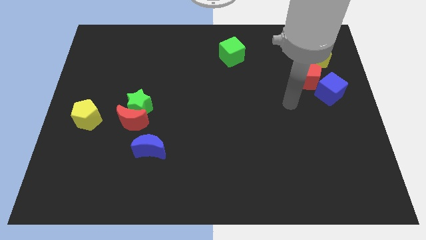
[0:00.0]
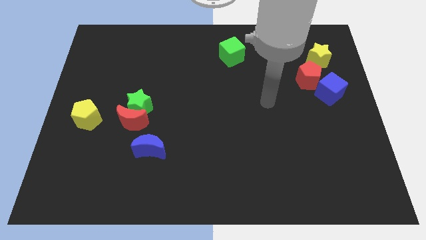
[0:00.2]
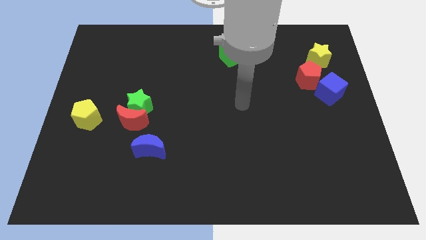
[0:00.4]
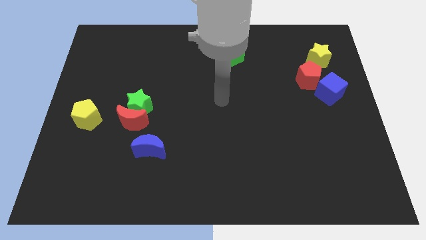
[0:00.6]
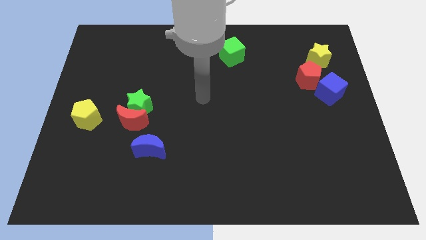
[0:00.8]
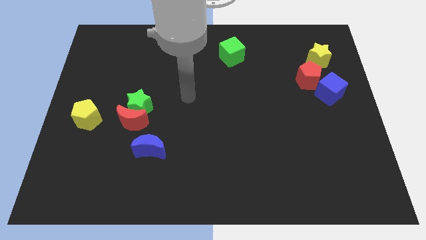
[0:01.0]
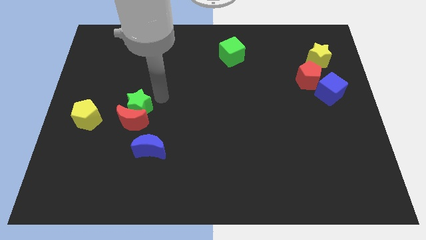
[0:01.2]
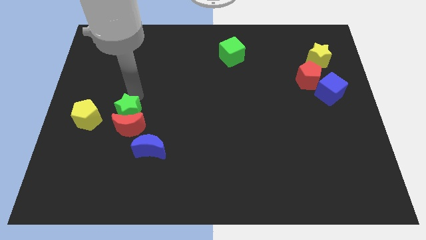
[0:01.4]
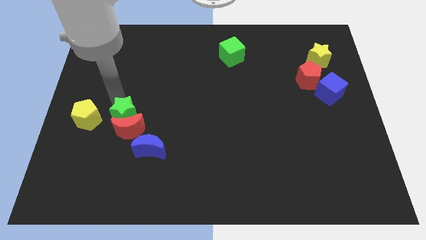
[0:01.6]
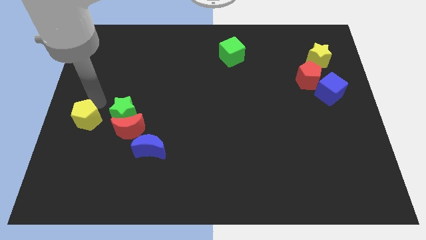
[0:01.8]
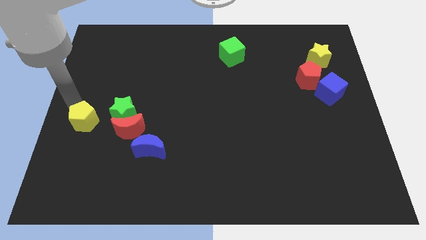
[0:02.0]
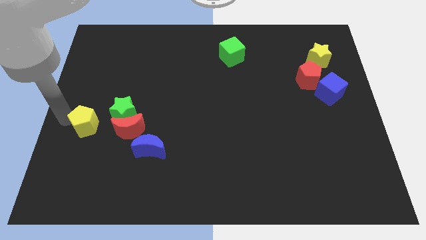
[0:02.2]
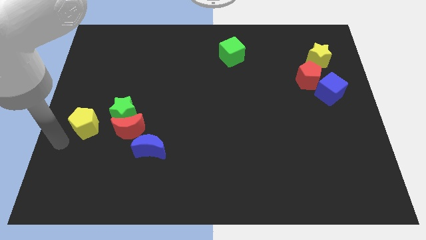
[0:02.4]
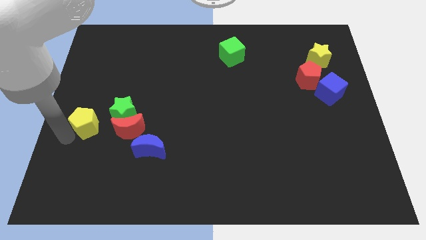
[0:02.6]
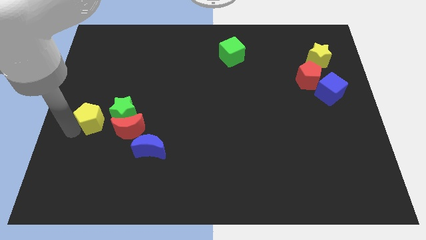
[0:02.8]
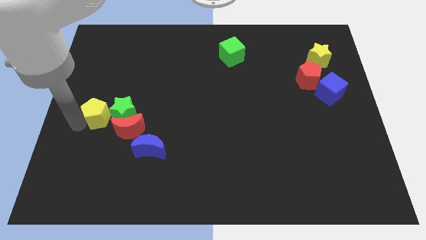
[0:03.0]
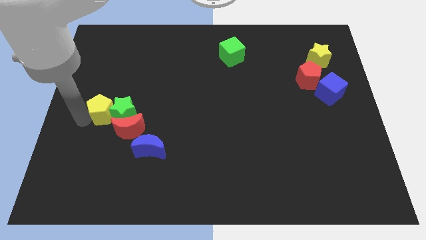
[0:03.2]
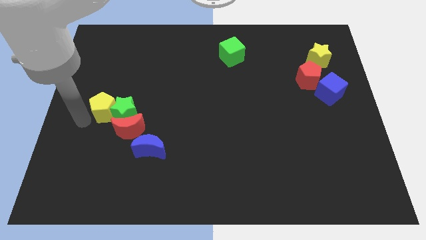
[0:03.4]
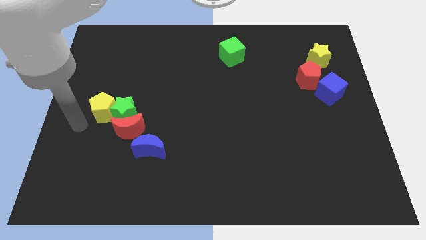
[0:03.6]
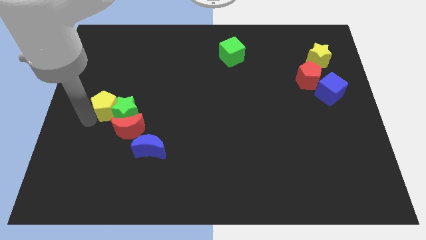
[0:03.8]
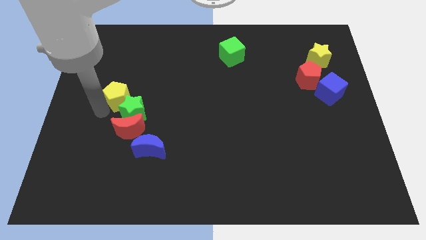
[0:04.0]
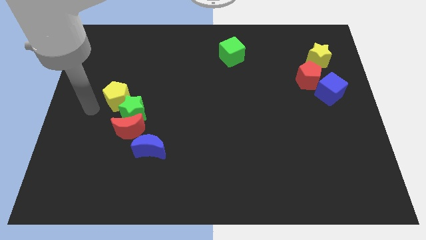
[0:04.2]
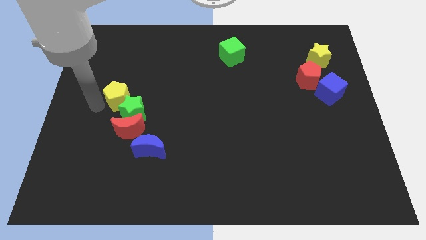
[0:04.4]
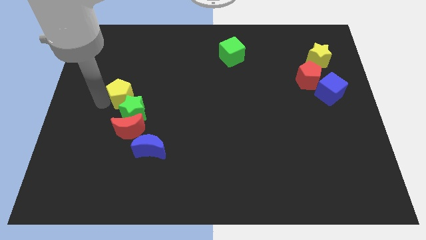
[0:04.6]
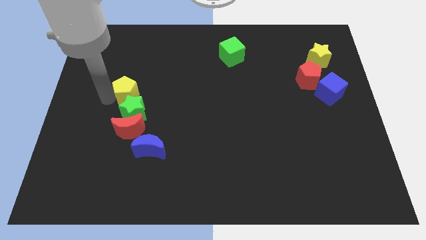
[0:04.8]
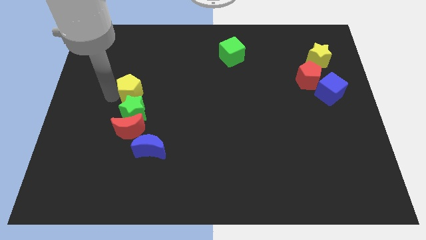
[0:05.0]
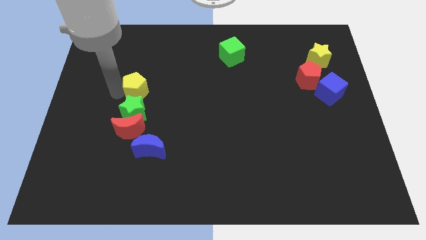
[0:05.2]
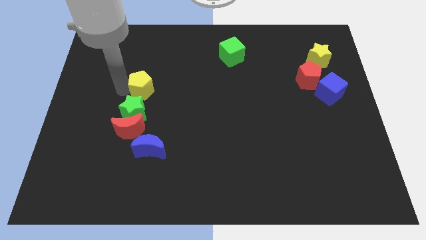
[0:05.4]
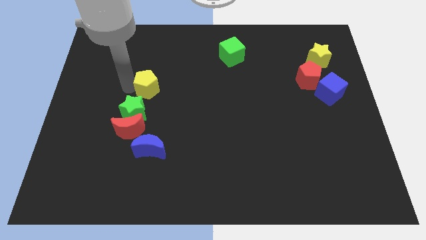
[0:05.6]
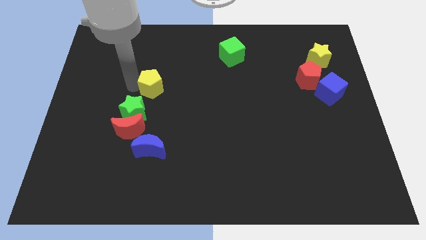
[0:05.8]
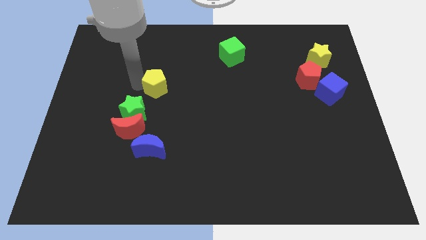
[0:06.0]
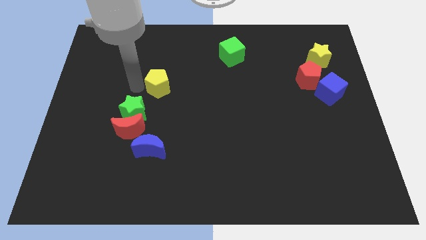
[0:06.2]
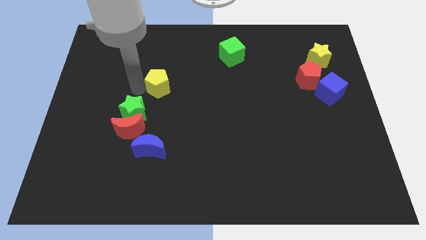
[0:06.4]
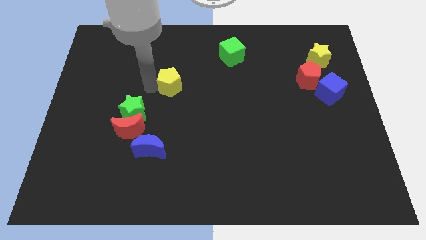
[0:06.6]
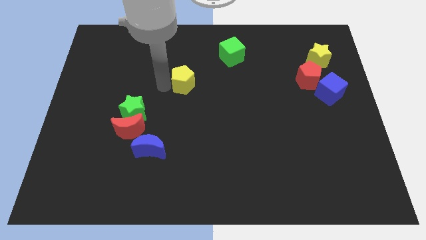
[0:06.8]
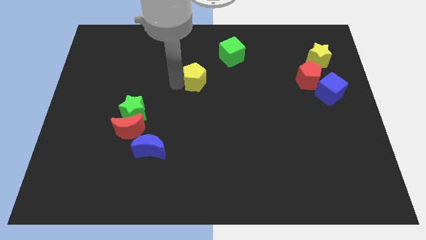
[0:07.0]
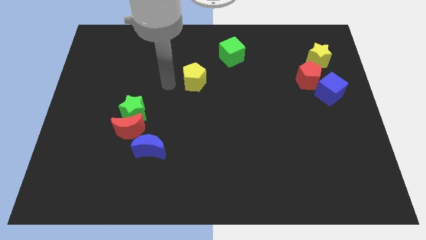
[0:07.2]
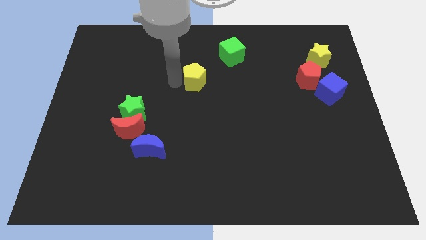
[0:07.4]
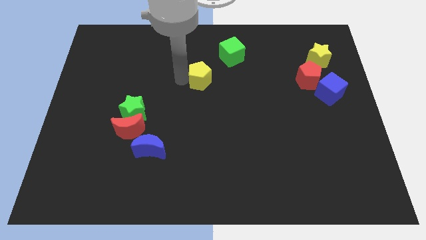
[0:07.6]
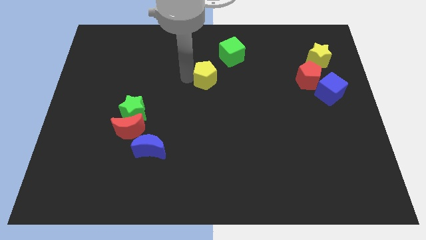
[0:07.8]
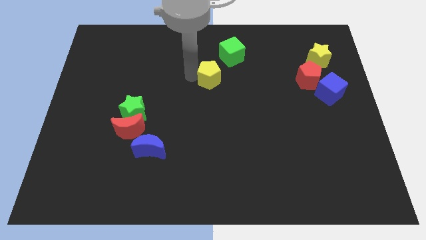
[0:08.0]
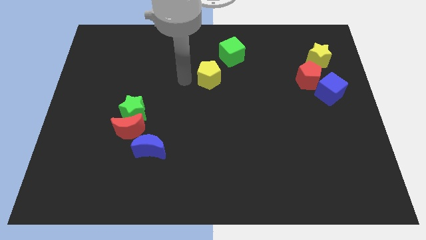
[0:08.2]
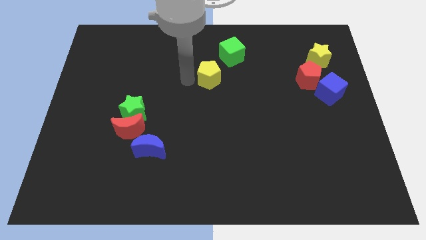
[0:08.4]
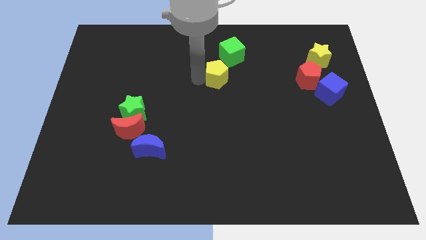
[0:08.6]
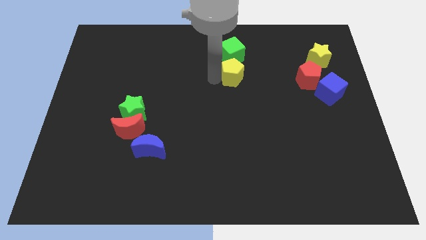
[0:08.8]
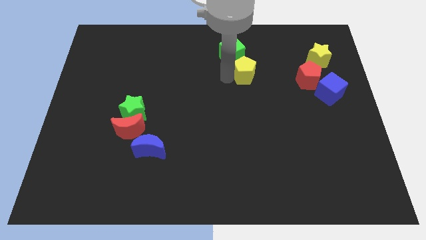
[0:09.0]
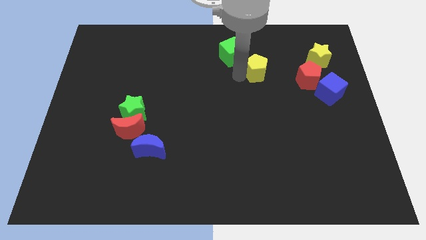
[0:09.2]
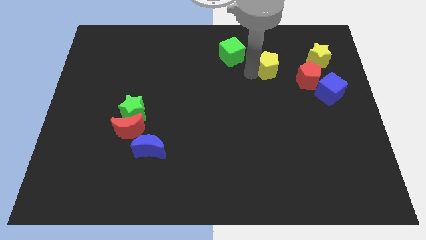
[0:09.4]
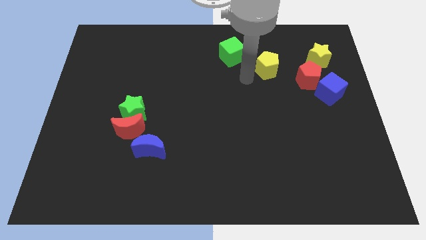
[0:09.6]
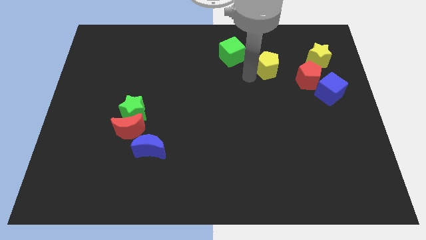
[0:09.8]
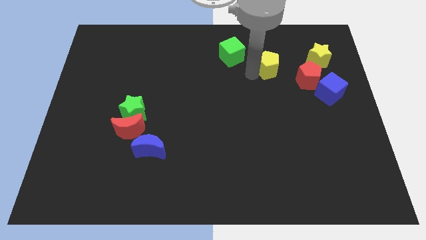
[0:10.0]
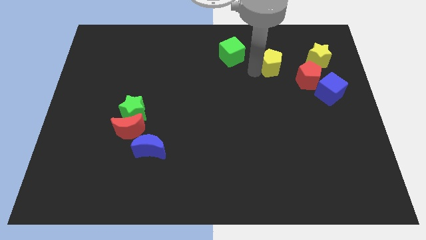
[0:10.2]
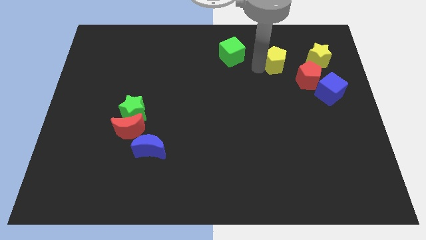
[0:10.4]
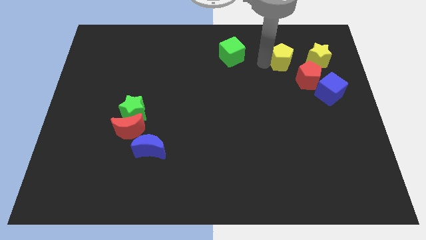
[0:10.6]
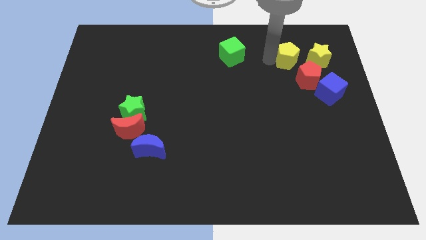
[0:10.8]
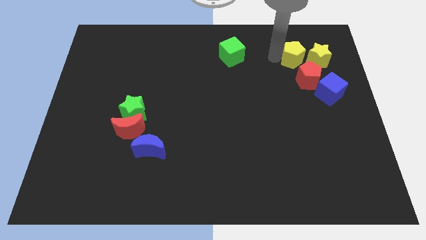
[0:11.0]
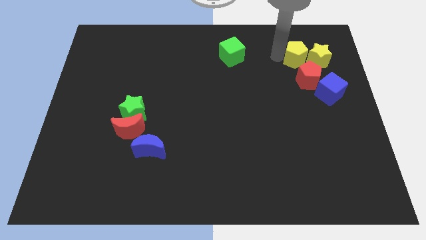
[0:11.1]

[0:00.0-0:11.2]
put the yellow pentagon next to the yellow star

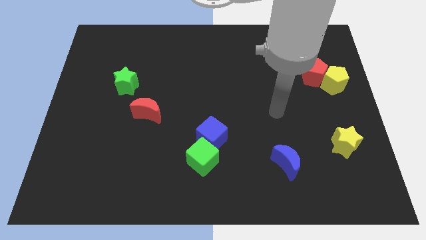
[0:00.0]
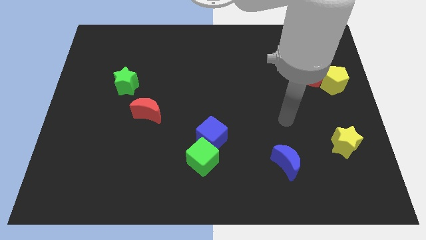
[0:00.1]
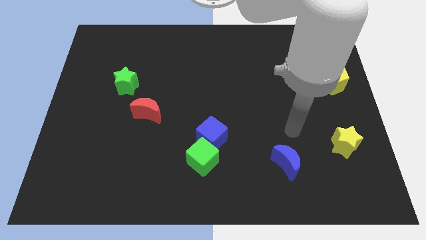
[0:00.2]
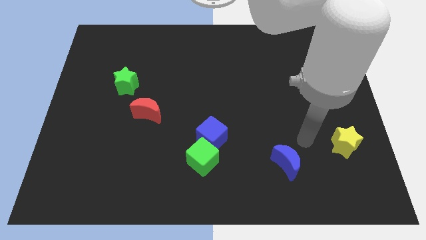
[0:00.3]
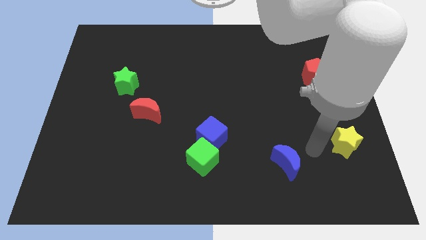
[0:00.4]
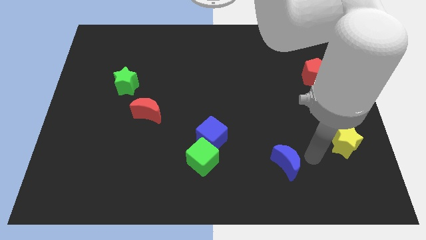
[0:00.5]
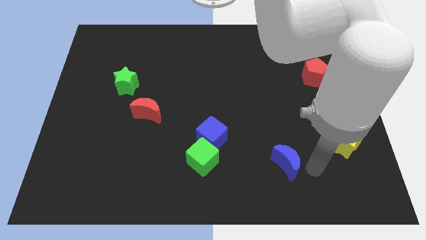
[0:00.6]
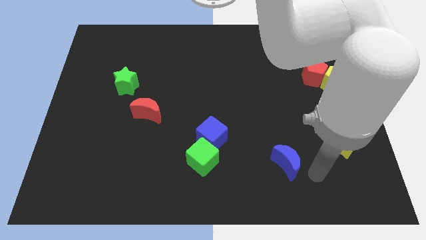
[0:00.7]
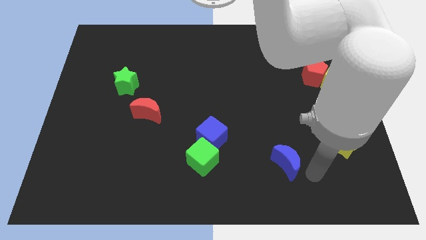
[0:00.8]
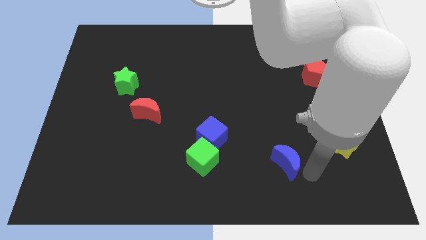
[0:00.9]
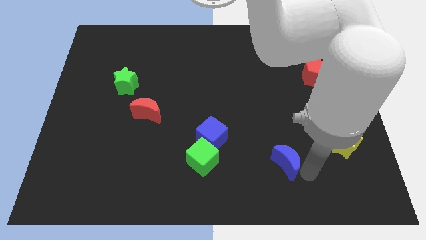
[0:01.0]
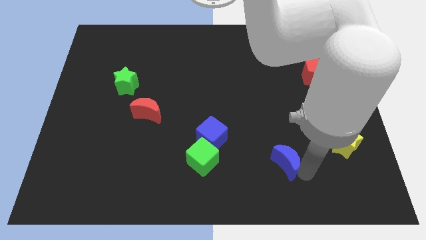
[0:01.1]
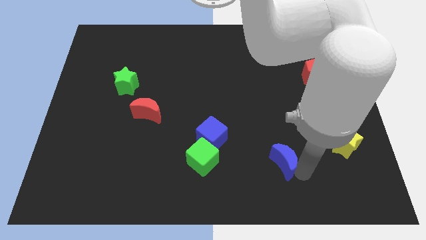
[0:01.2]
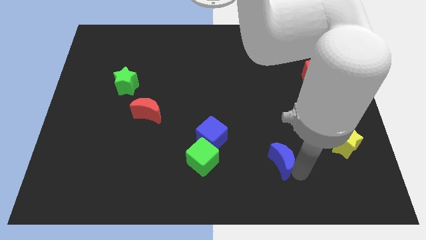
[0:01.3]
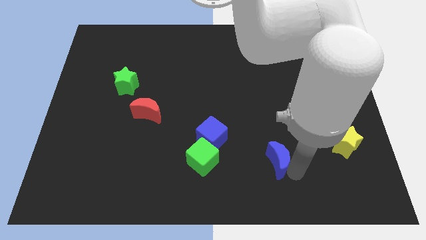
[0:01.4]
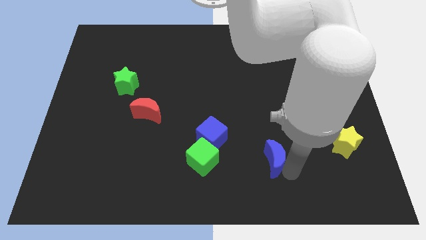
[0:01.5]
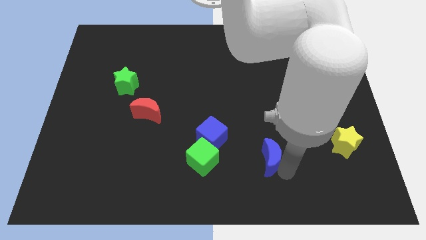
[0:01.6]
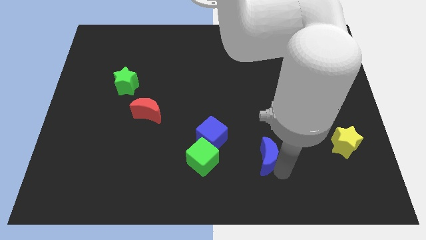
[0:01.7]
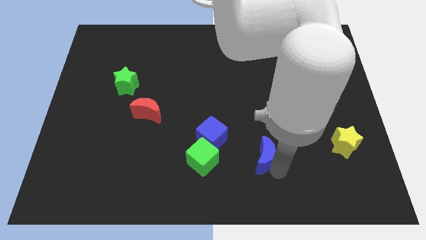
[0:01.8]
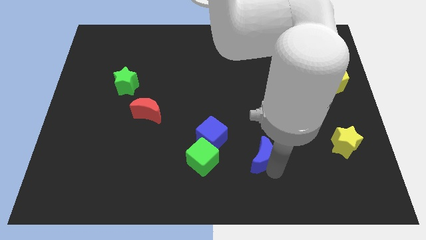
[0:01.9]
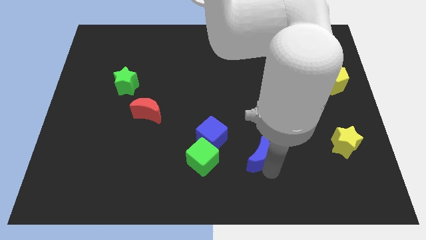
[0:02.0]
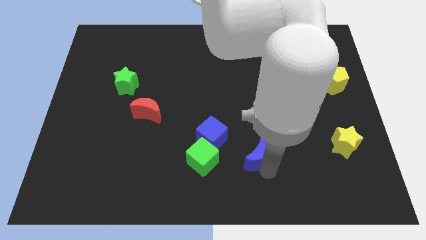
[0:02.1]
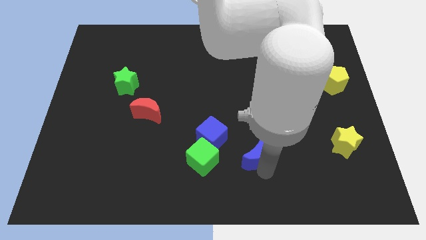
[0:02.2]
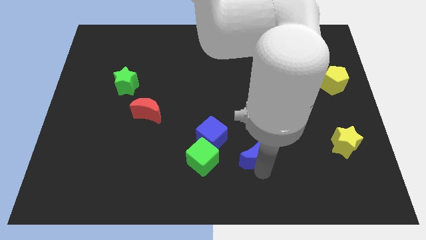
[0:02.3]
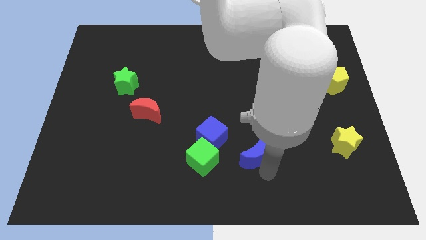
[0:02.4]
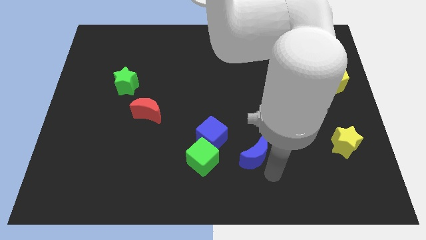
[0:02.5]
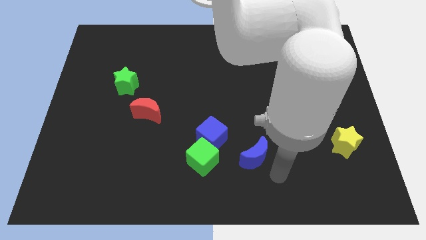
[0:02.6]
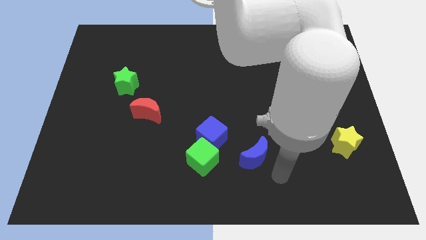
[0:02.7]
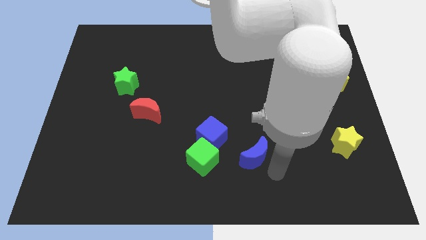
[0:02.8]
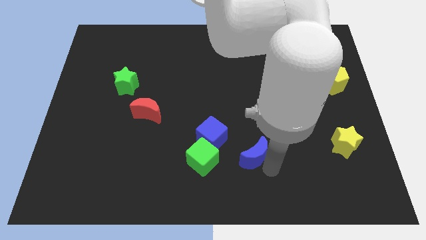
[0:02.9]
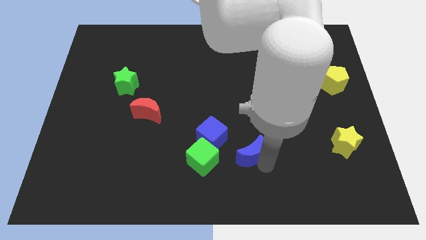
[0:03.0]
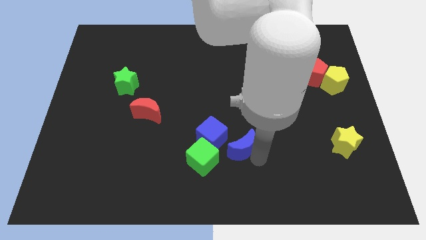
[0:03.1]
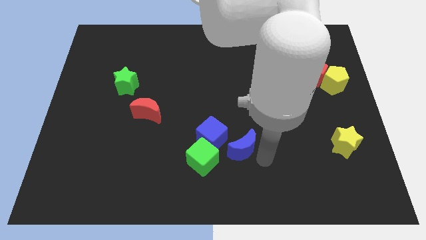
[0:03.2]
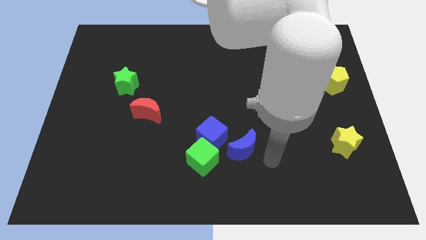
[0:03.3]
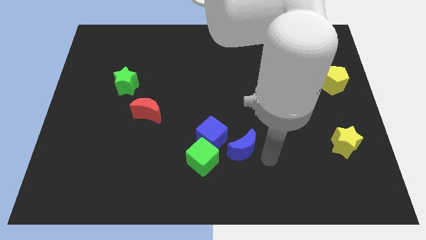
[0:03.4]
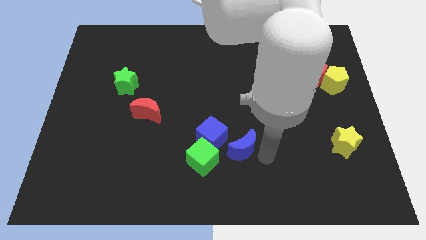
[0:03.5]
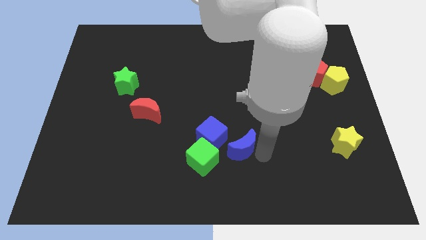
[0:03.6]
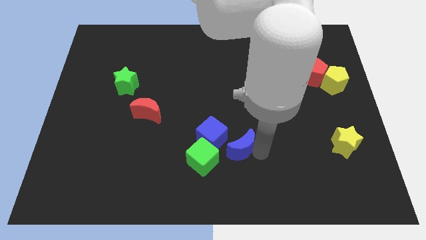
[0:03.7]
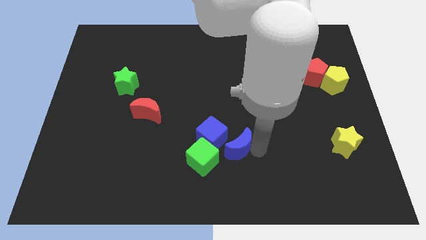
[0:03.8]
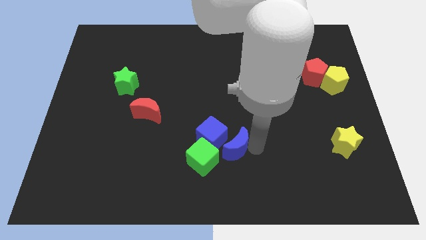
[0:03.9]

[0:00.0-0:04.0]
move the blue moon next to the blue cube
